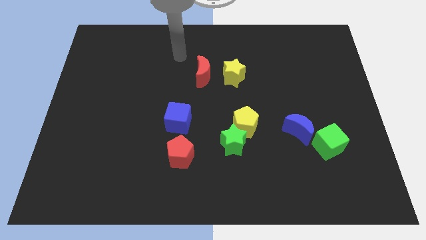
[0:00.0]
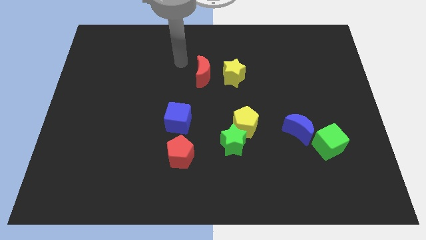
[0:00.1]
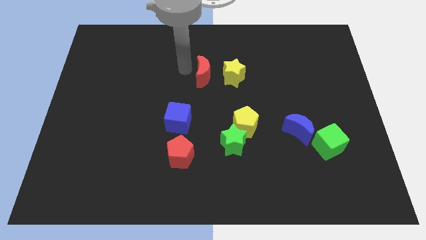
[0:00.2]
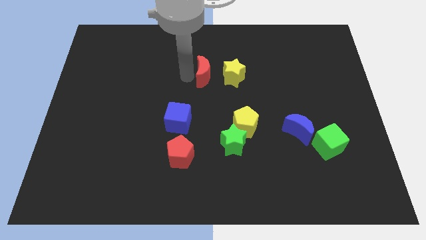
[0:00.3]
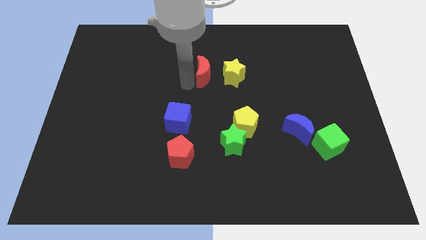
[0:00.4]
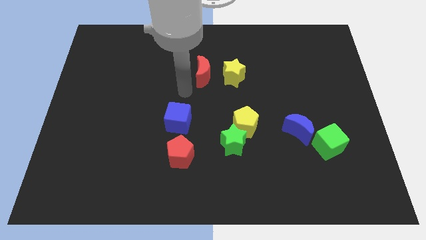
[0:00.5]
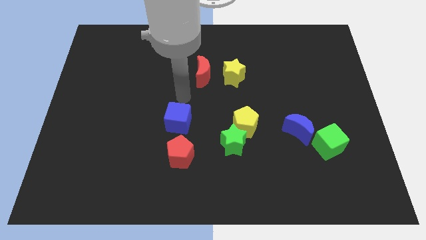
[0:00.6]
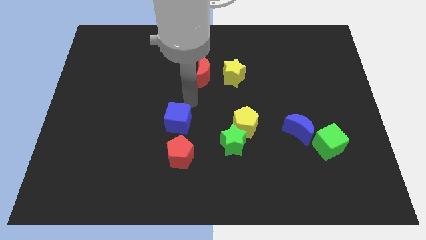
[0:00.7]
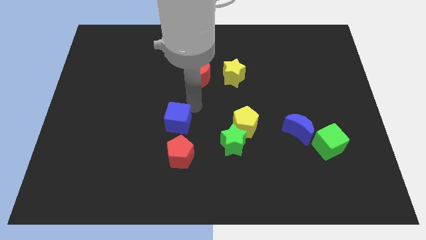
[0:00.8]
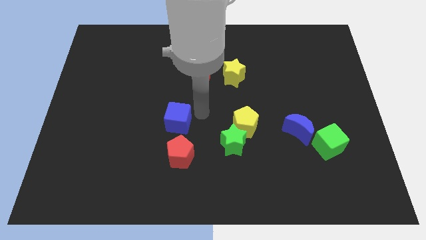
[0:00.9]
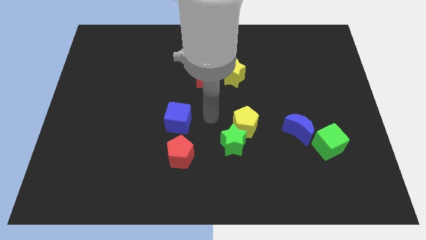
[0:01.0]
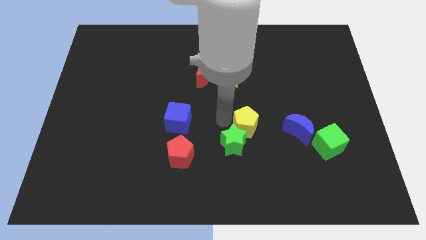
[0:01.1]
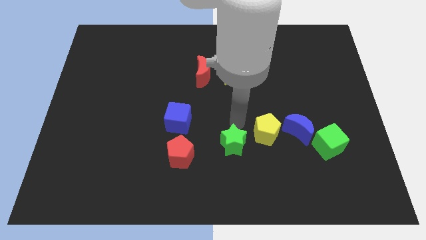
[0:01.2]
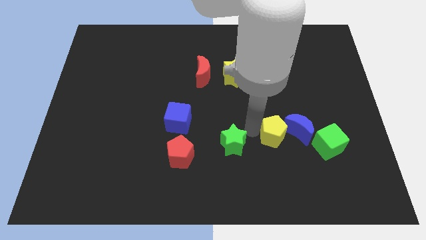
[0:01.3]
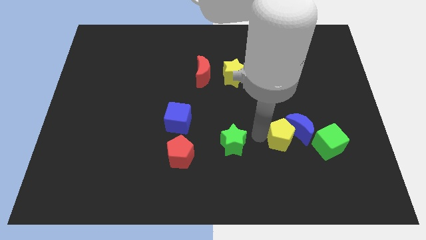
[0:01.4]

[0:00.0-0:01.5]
move the green star away from the yellow pentagon

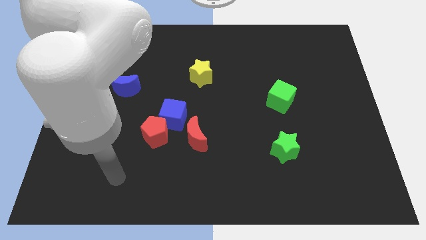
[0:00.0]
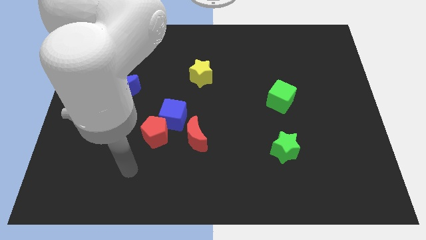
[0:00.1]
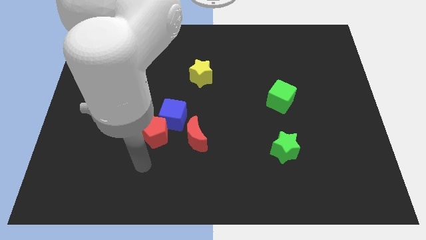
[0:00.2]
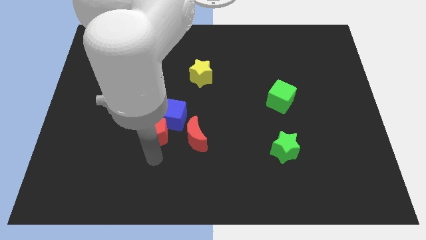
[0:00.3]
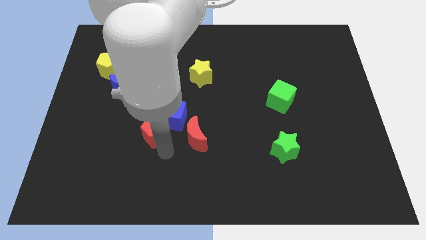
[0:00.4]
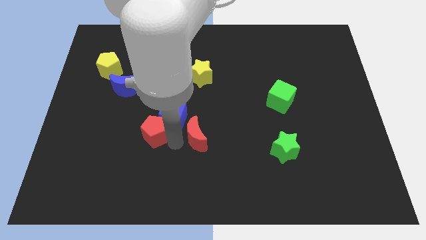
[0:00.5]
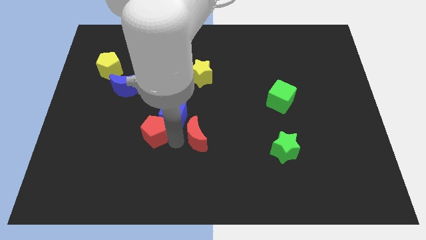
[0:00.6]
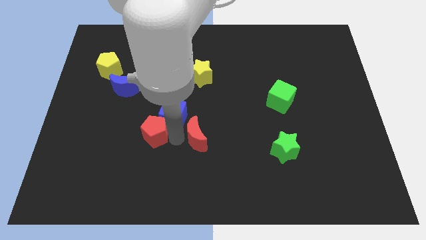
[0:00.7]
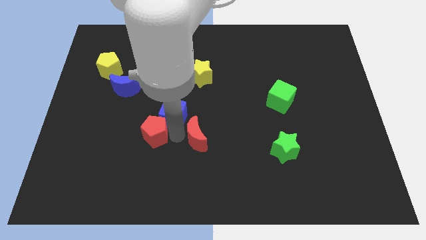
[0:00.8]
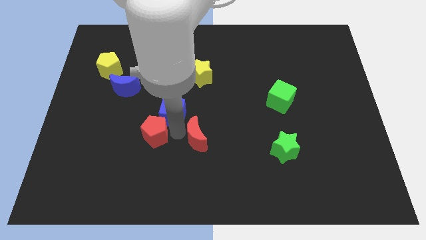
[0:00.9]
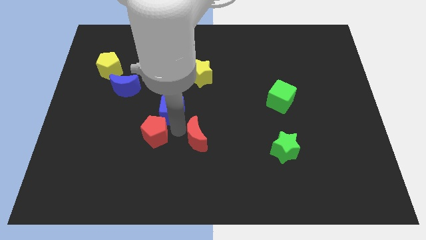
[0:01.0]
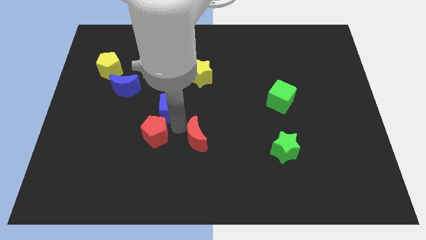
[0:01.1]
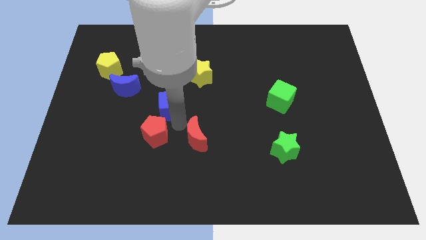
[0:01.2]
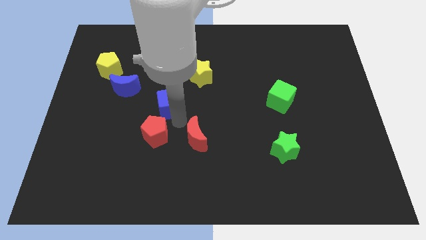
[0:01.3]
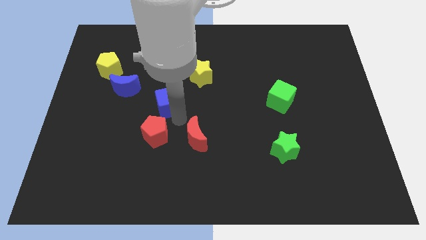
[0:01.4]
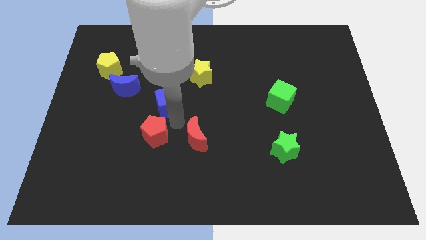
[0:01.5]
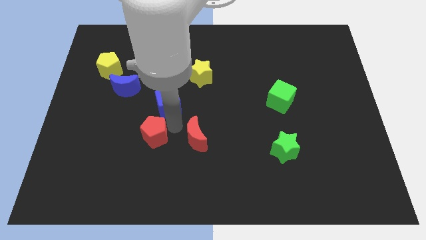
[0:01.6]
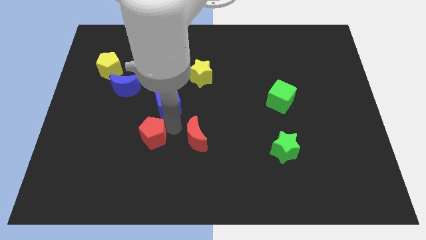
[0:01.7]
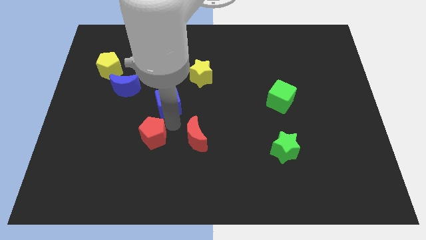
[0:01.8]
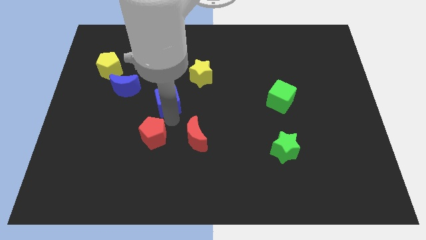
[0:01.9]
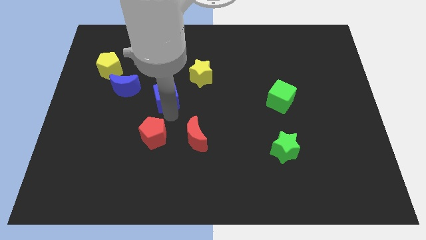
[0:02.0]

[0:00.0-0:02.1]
move the blue cube away from the red pentagon and red moon

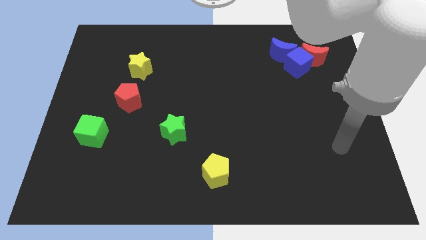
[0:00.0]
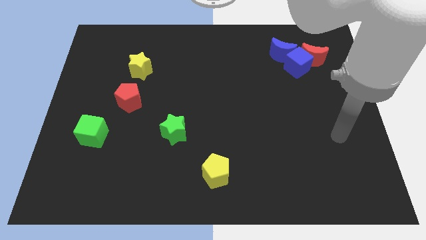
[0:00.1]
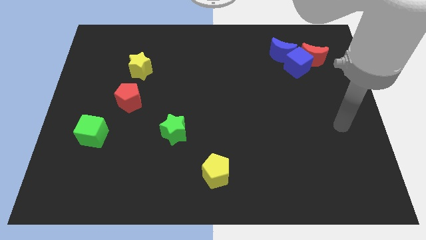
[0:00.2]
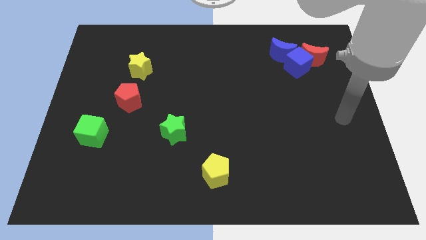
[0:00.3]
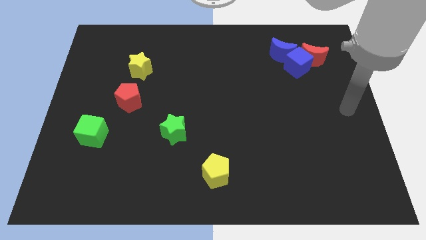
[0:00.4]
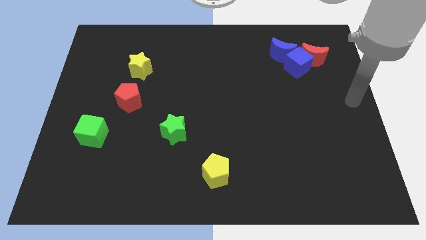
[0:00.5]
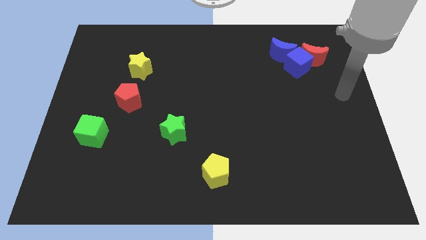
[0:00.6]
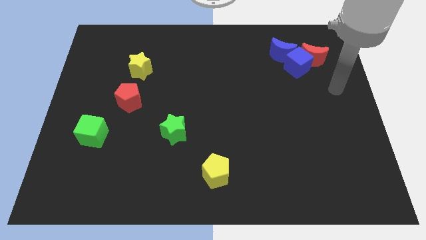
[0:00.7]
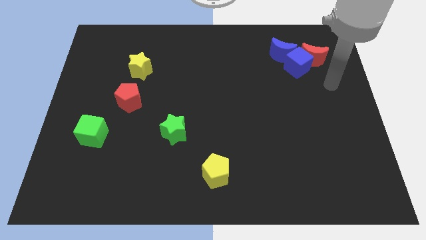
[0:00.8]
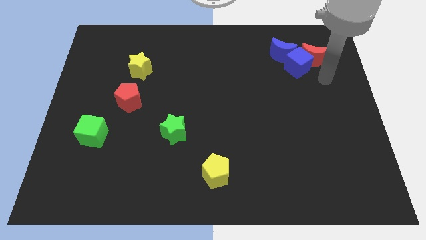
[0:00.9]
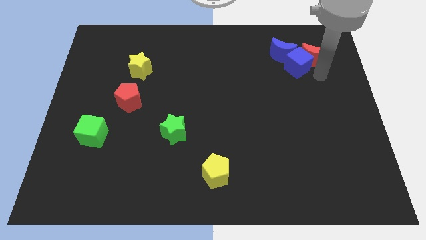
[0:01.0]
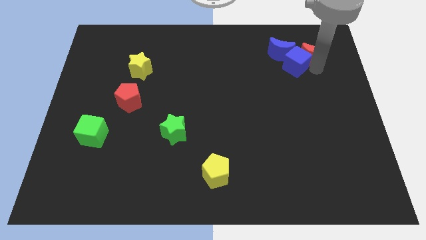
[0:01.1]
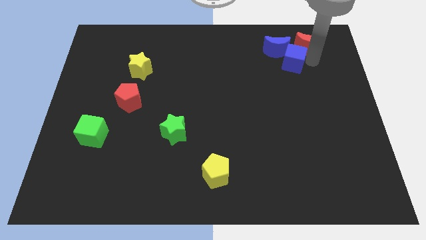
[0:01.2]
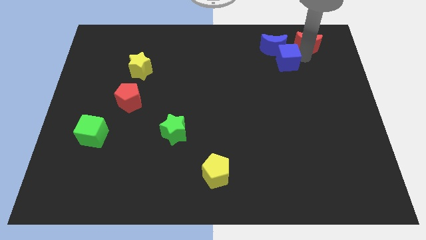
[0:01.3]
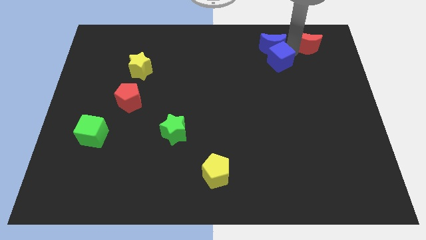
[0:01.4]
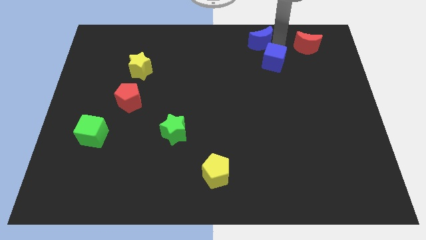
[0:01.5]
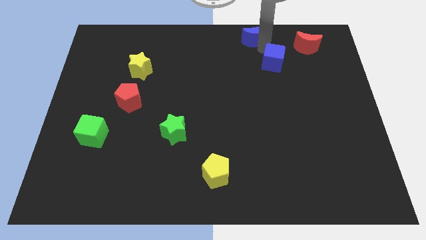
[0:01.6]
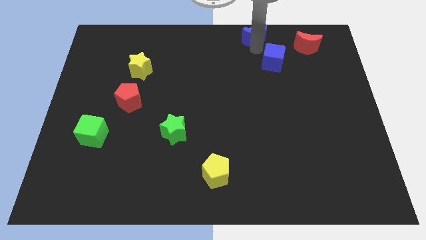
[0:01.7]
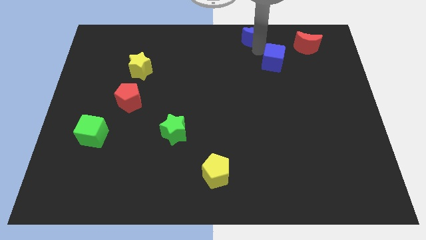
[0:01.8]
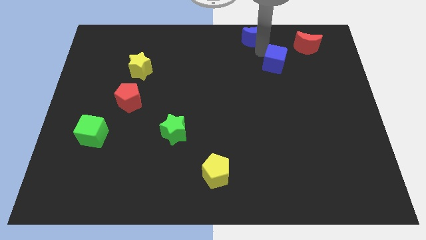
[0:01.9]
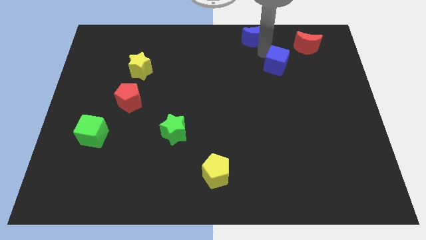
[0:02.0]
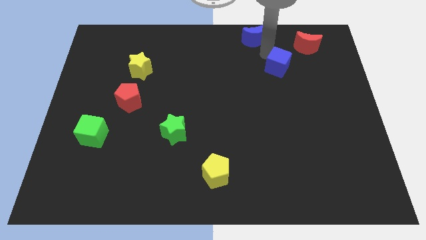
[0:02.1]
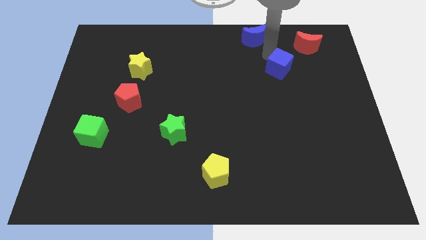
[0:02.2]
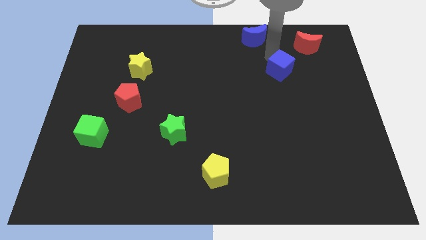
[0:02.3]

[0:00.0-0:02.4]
pull the blue cube apart from the red moon and blue moon

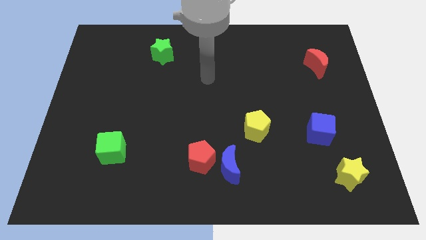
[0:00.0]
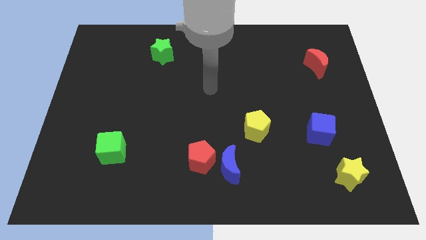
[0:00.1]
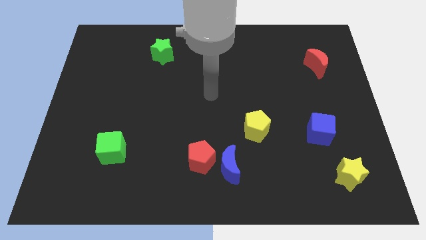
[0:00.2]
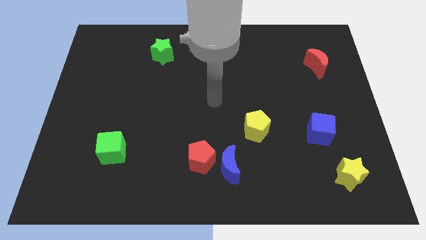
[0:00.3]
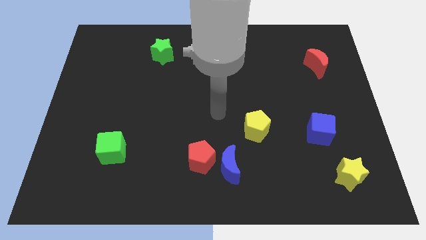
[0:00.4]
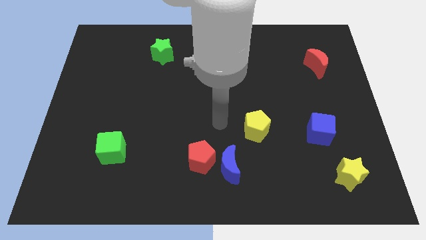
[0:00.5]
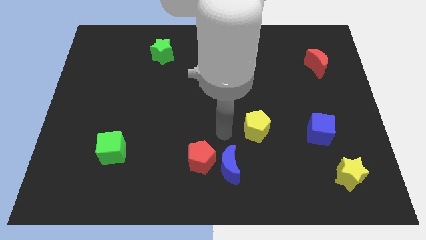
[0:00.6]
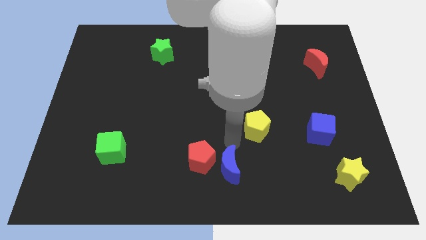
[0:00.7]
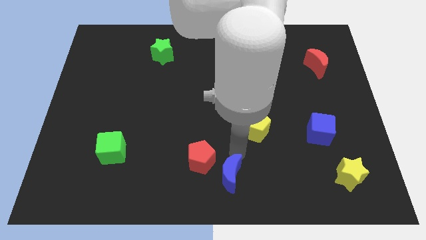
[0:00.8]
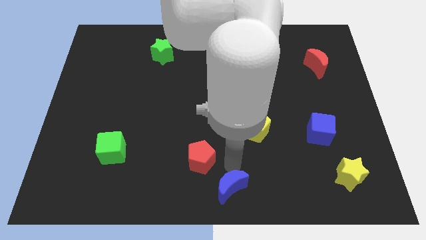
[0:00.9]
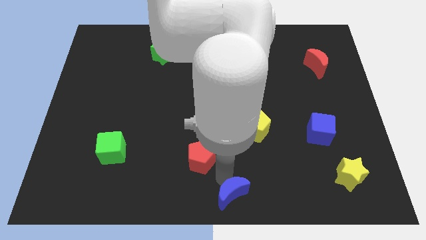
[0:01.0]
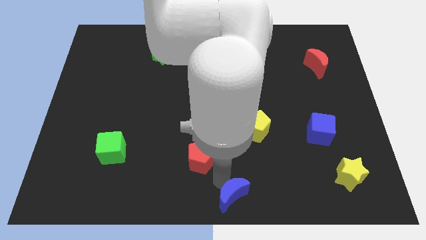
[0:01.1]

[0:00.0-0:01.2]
pull the red pentagon apart from the blue moon

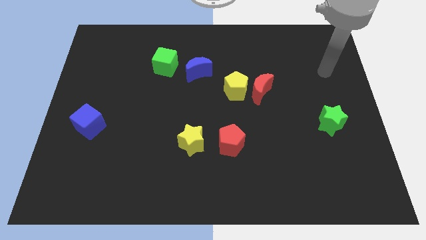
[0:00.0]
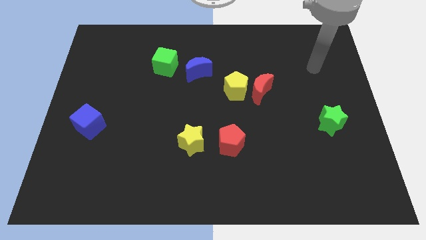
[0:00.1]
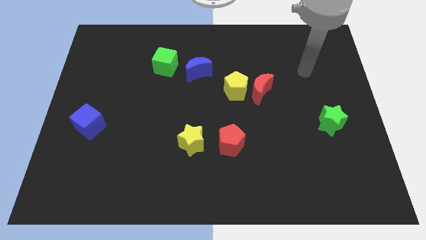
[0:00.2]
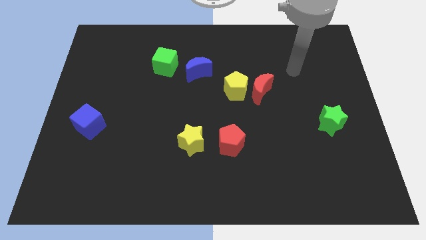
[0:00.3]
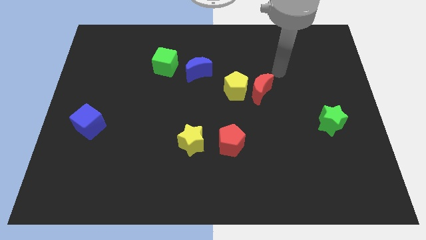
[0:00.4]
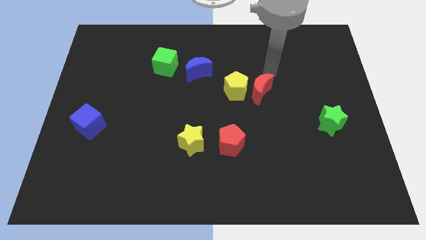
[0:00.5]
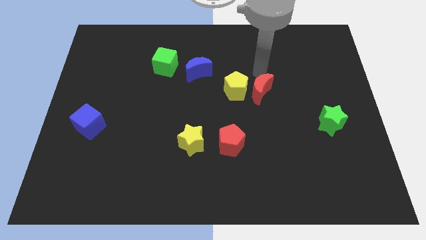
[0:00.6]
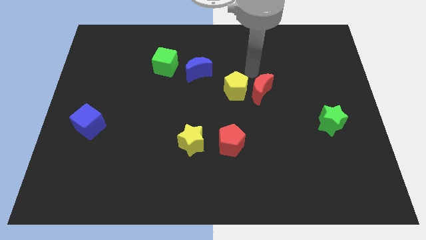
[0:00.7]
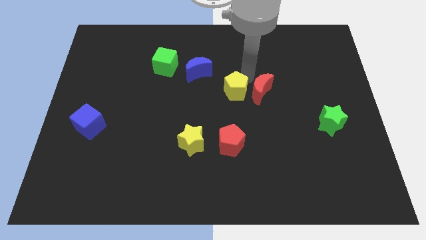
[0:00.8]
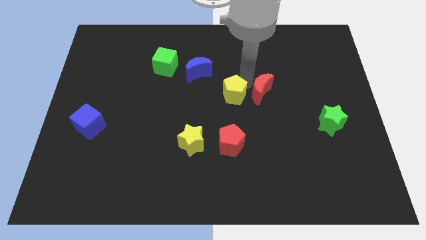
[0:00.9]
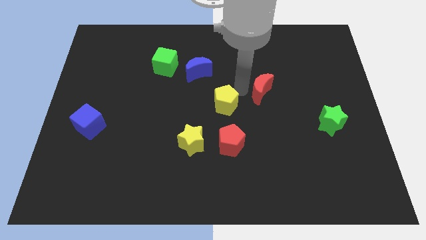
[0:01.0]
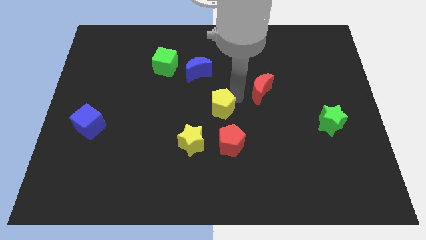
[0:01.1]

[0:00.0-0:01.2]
separate the red moon from the yellow pentagon

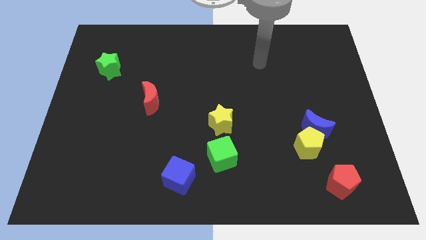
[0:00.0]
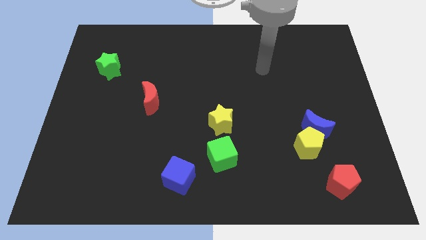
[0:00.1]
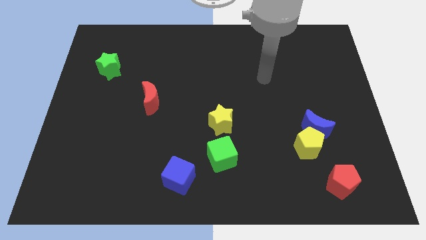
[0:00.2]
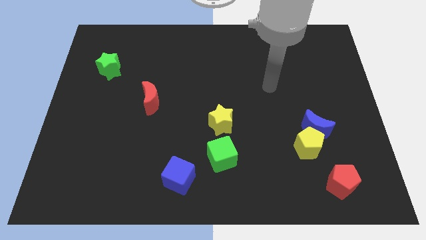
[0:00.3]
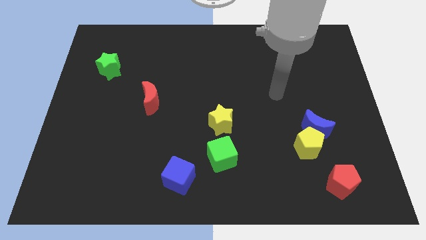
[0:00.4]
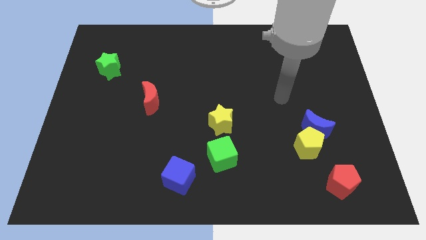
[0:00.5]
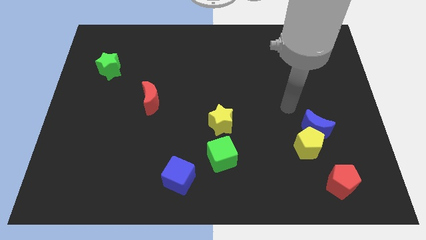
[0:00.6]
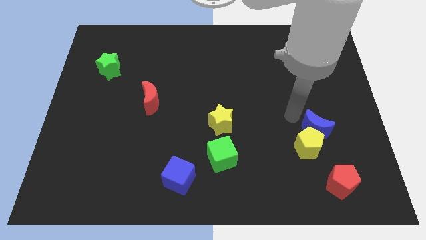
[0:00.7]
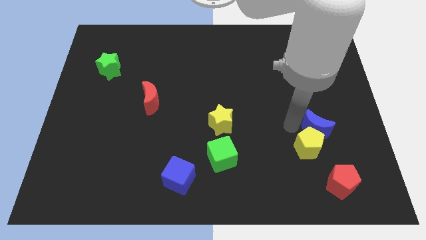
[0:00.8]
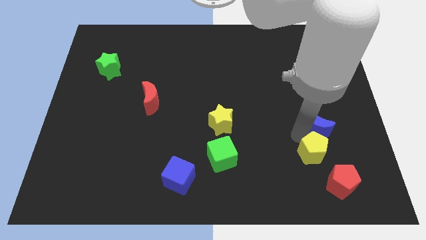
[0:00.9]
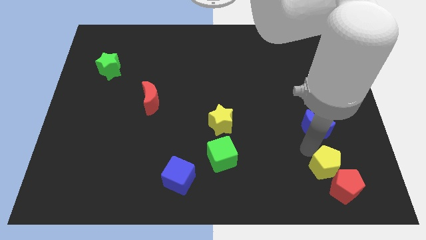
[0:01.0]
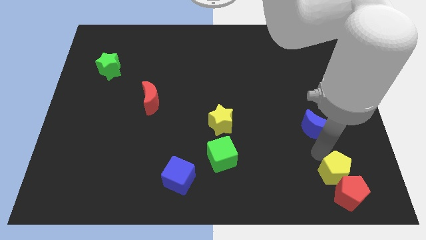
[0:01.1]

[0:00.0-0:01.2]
pull the blue moon apart from the yellow pentagon
